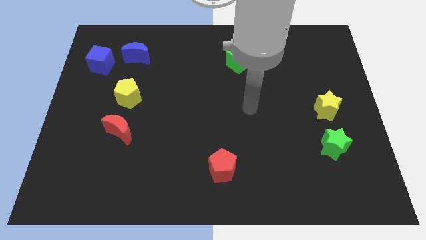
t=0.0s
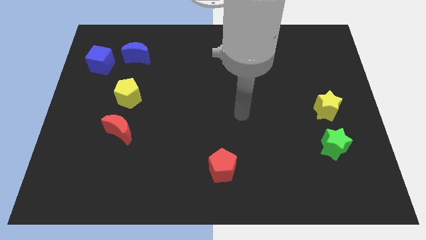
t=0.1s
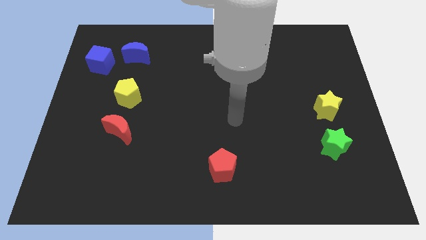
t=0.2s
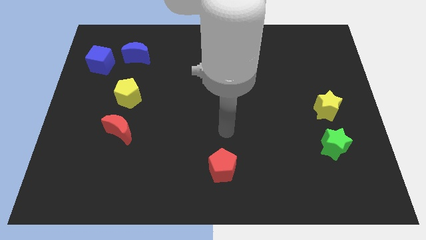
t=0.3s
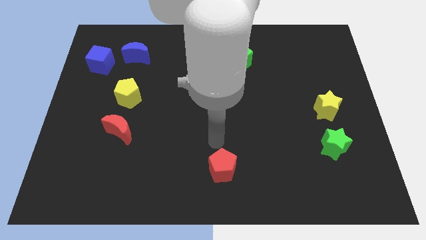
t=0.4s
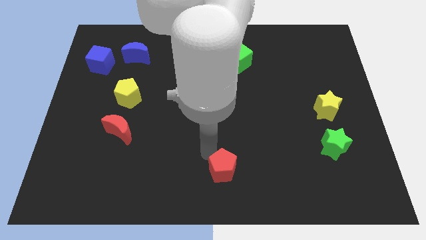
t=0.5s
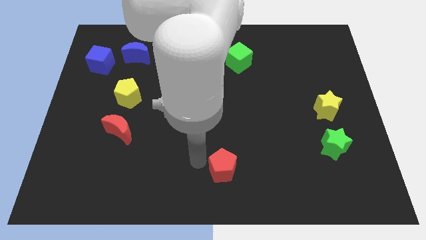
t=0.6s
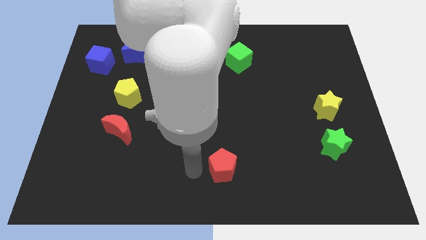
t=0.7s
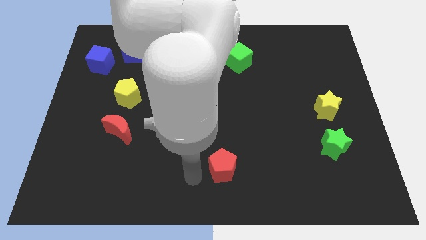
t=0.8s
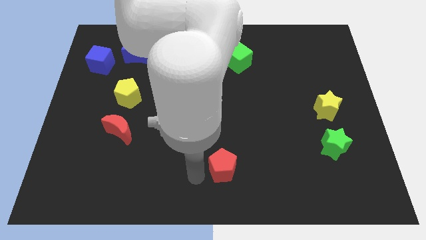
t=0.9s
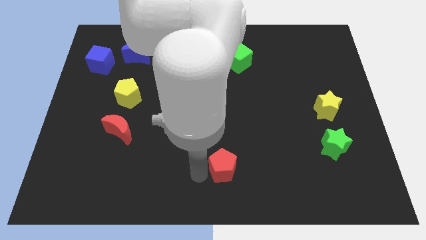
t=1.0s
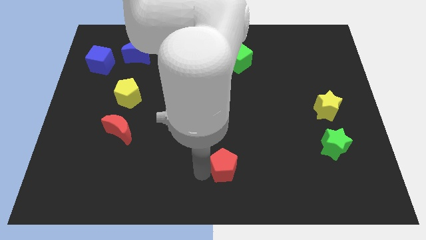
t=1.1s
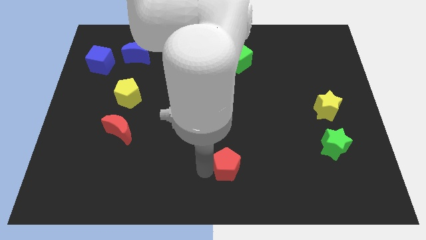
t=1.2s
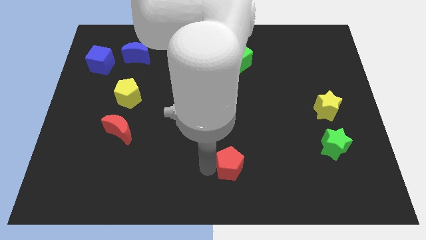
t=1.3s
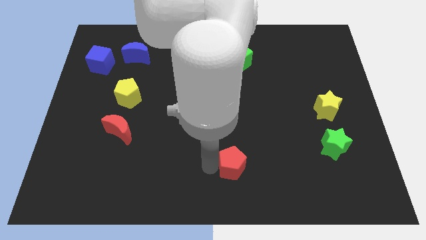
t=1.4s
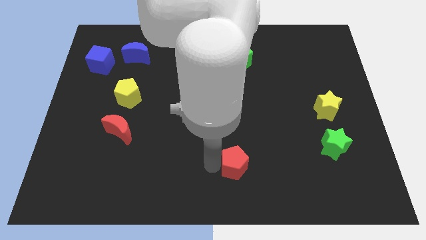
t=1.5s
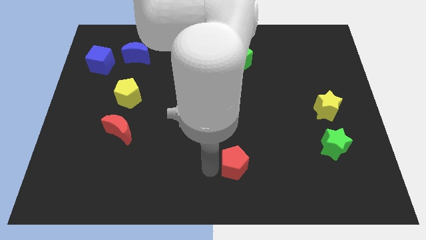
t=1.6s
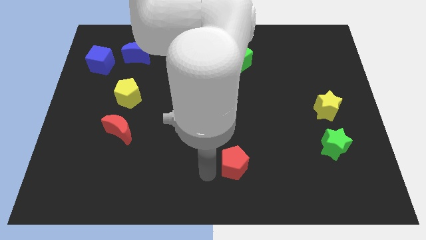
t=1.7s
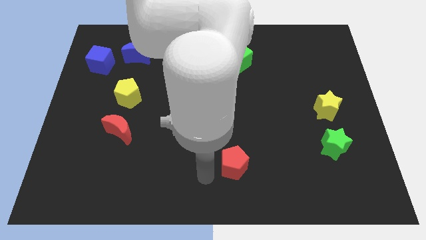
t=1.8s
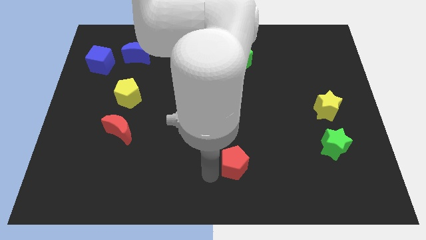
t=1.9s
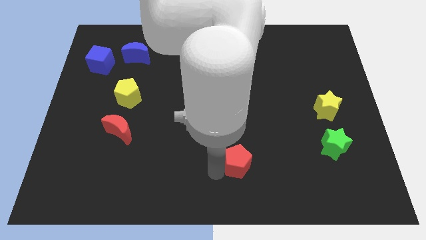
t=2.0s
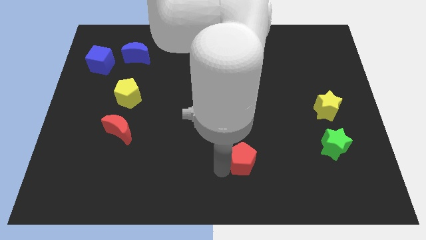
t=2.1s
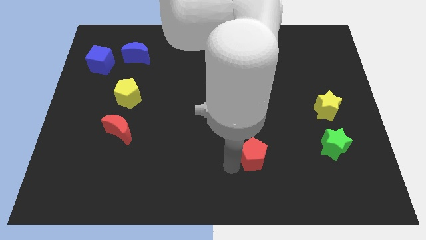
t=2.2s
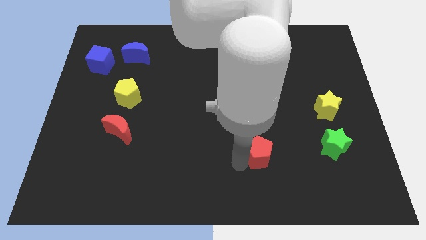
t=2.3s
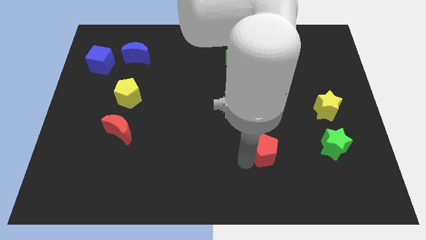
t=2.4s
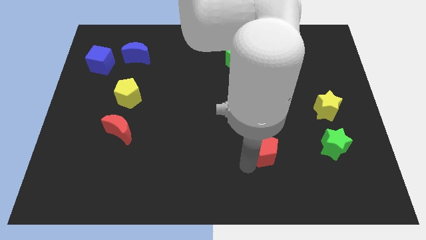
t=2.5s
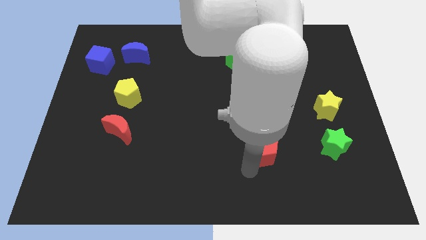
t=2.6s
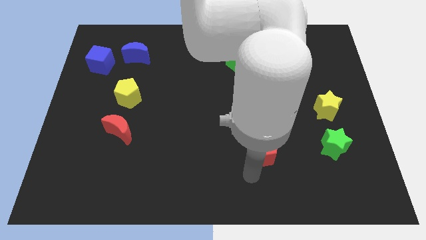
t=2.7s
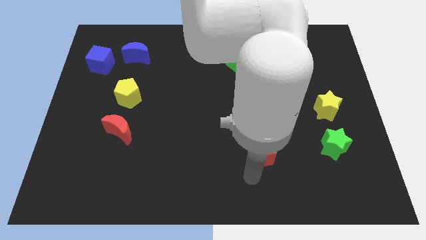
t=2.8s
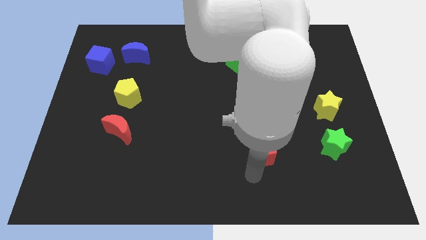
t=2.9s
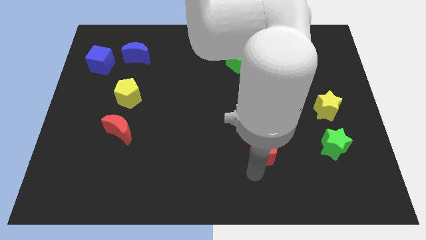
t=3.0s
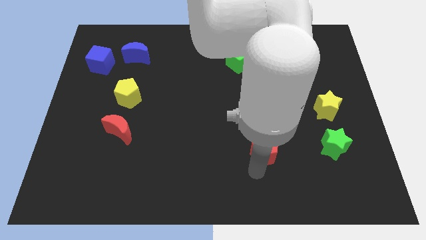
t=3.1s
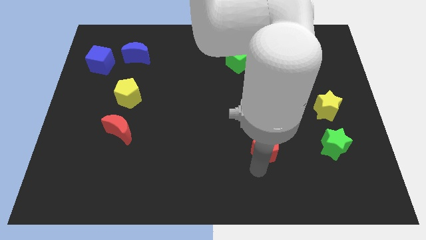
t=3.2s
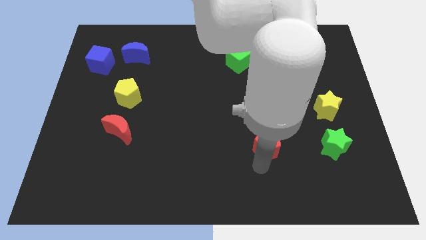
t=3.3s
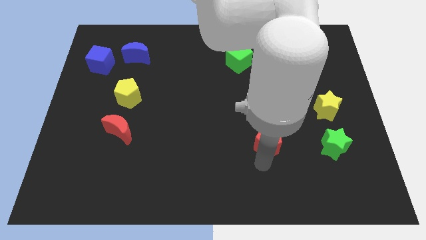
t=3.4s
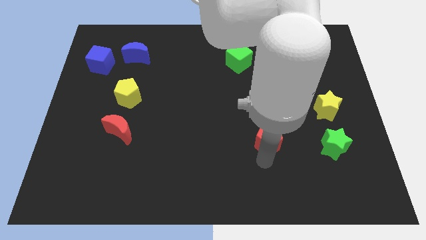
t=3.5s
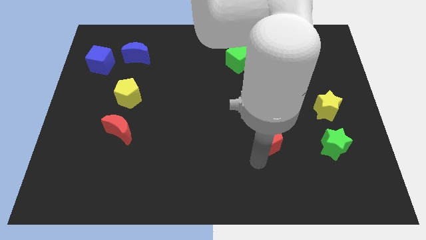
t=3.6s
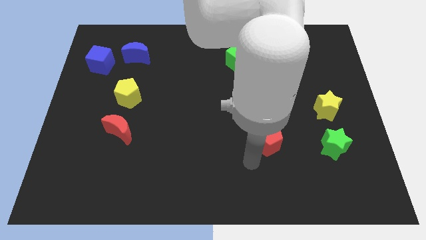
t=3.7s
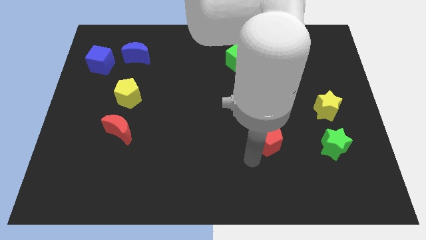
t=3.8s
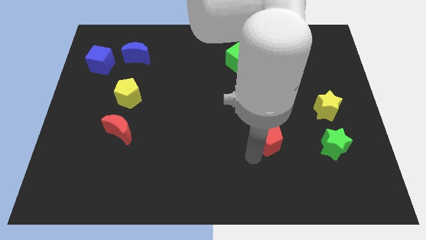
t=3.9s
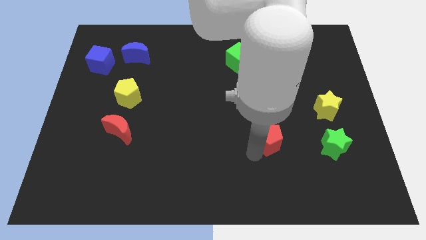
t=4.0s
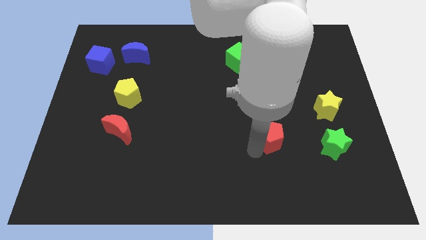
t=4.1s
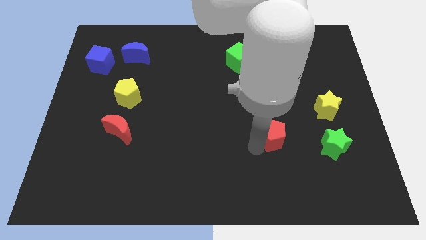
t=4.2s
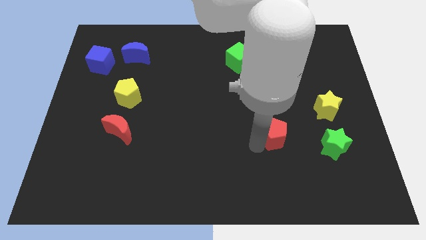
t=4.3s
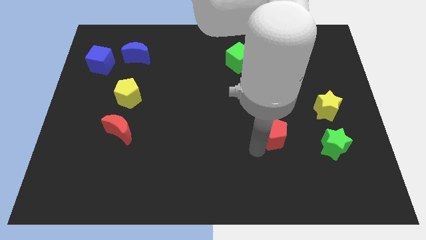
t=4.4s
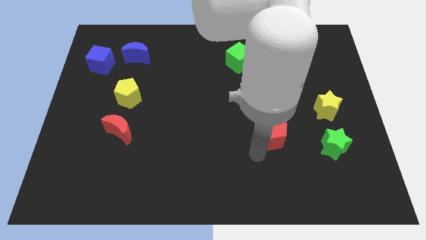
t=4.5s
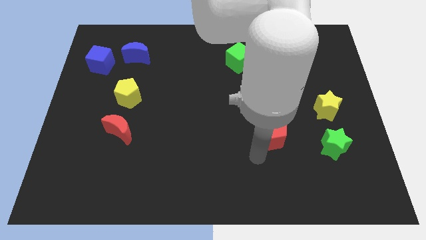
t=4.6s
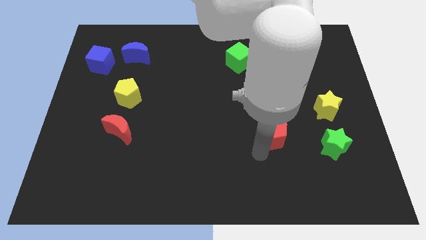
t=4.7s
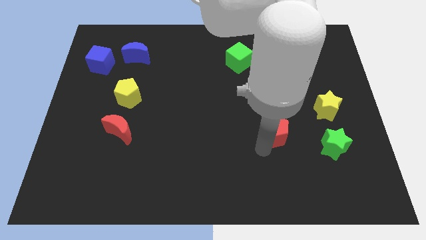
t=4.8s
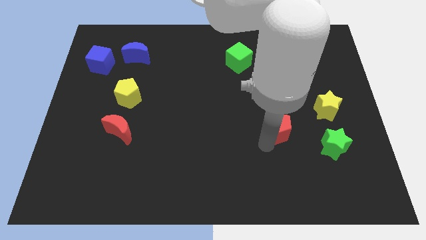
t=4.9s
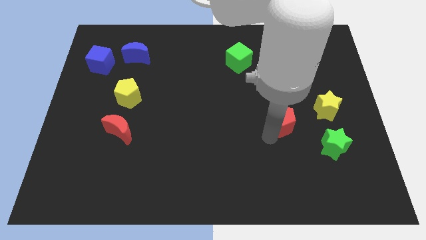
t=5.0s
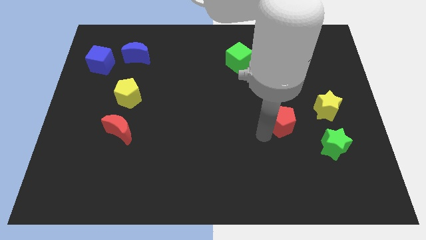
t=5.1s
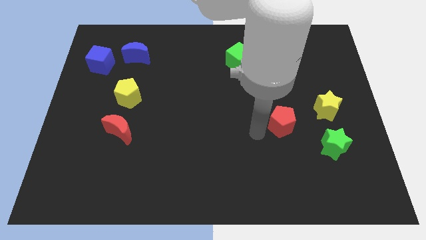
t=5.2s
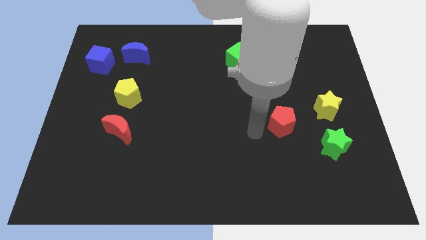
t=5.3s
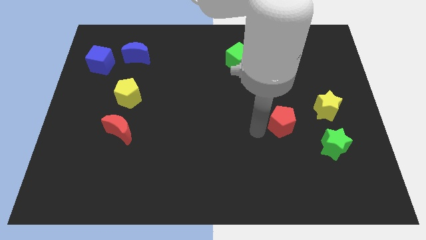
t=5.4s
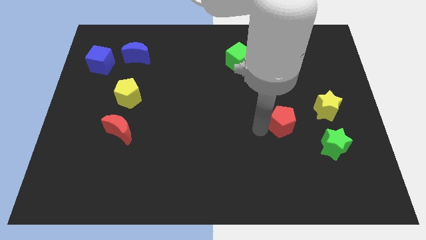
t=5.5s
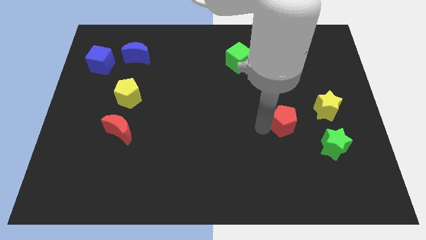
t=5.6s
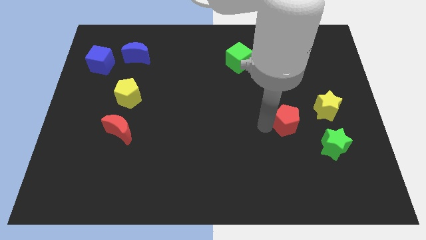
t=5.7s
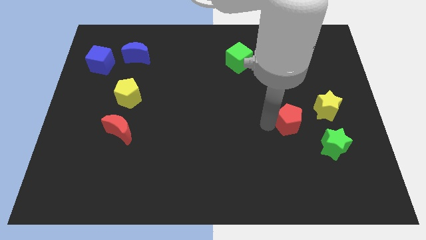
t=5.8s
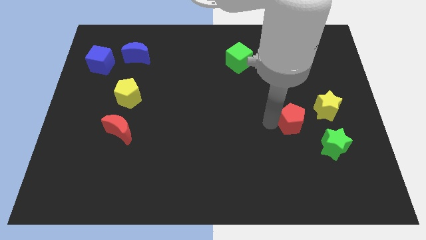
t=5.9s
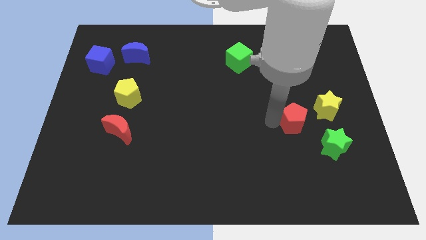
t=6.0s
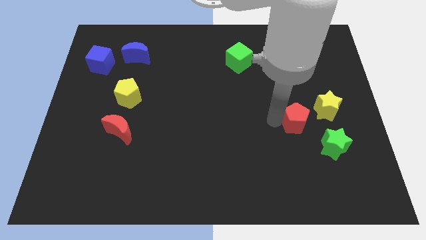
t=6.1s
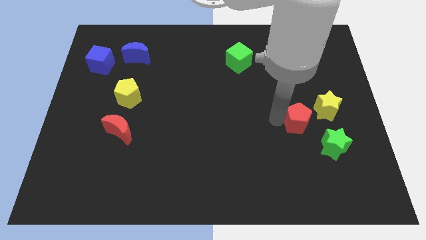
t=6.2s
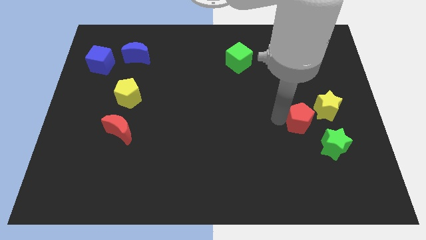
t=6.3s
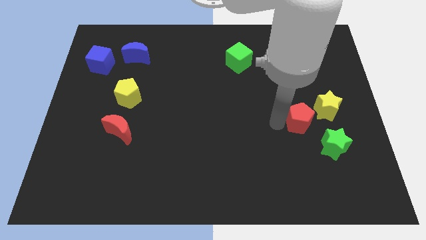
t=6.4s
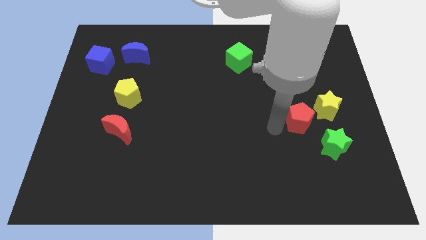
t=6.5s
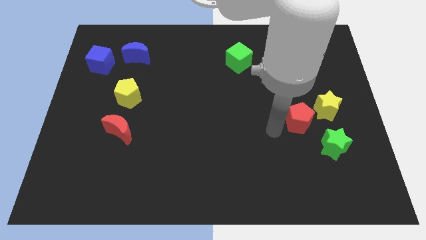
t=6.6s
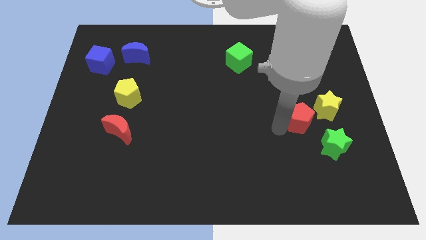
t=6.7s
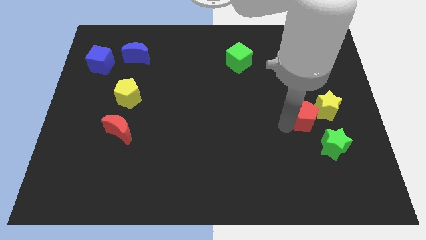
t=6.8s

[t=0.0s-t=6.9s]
slide the red pentagon close to the yellow star

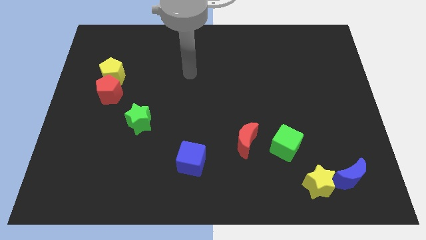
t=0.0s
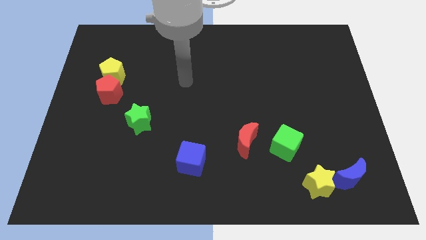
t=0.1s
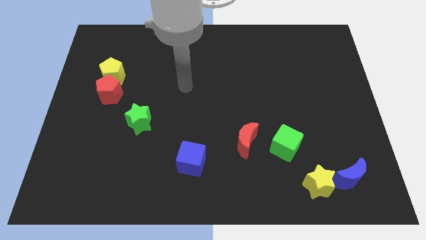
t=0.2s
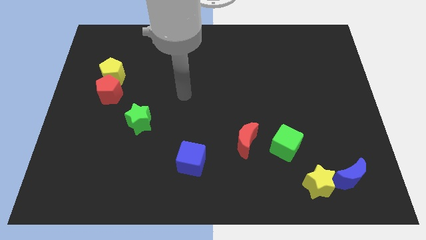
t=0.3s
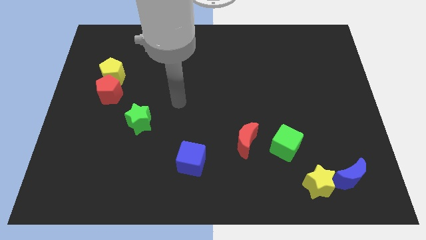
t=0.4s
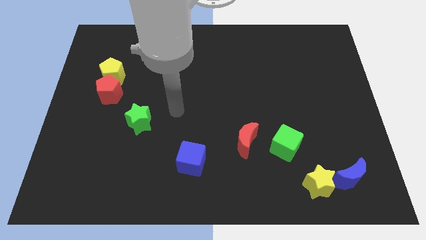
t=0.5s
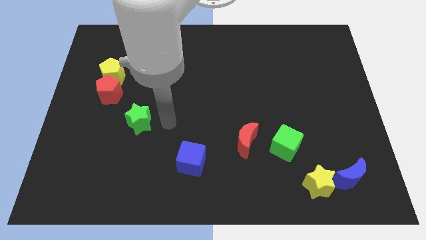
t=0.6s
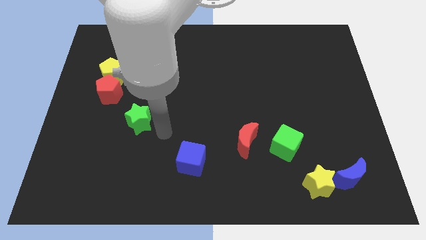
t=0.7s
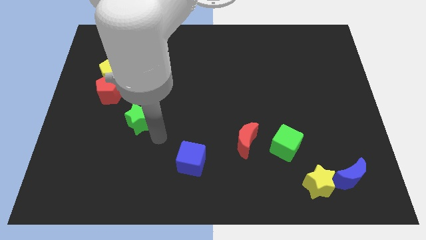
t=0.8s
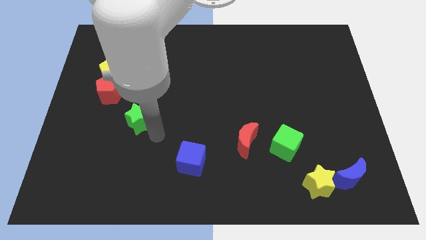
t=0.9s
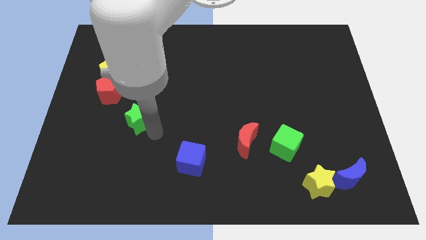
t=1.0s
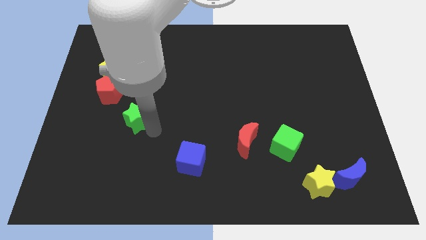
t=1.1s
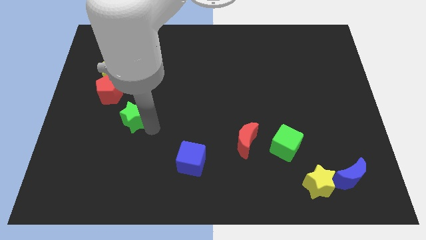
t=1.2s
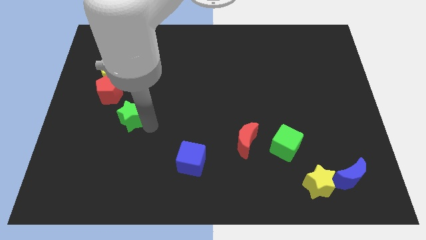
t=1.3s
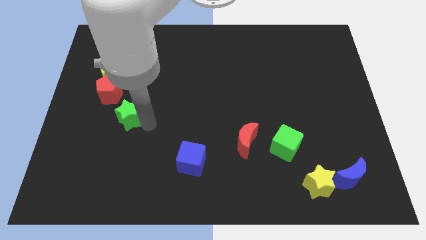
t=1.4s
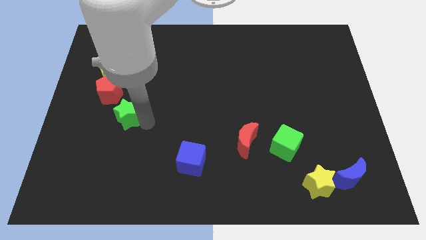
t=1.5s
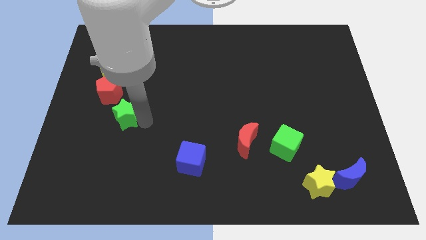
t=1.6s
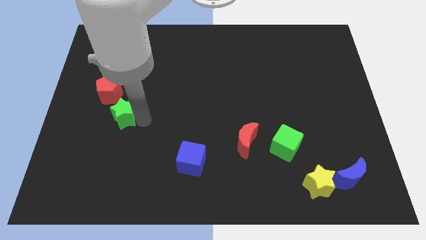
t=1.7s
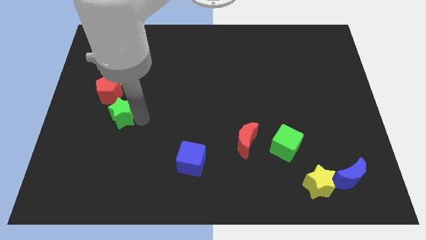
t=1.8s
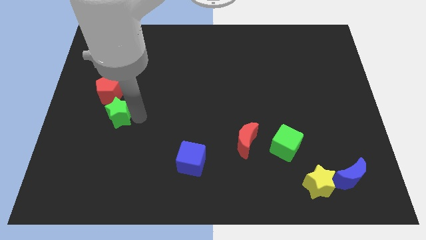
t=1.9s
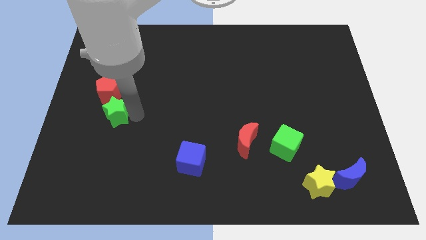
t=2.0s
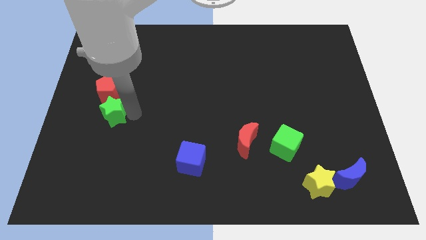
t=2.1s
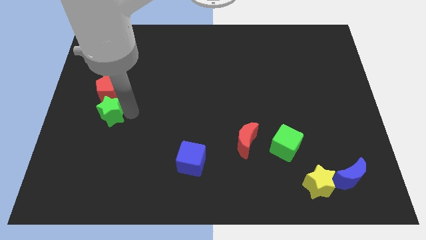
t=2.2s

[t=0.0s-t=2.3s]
push the green star next to the red pentagon
